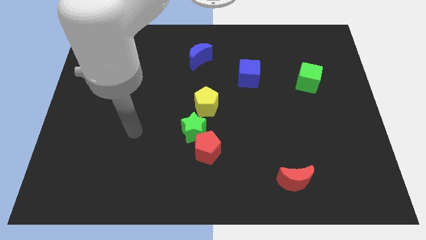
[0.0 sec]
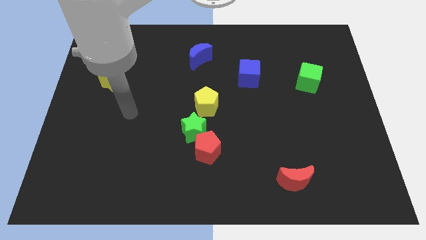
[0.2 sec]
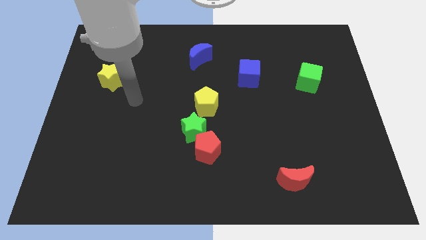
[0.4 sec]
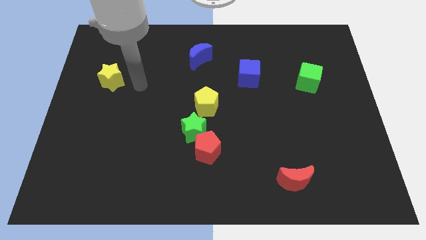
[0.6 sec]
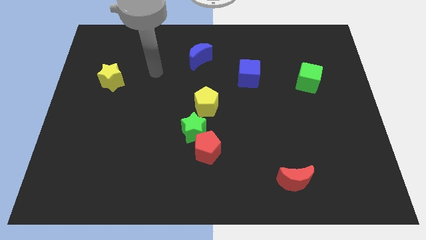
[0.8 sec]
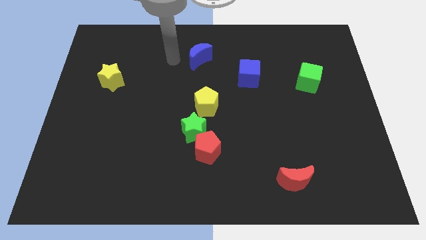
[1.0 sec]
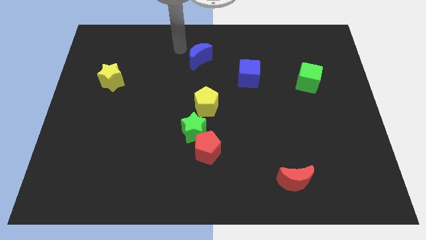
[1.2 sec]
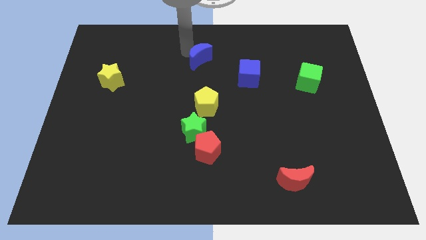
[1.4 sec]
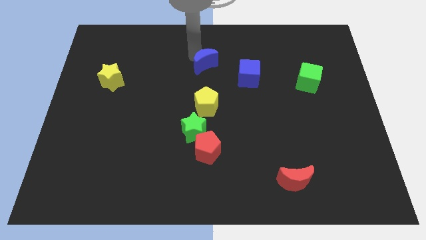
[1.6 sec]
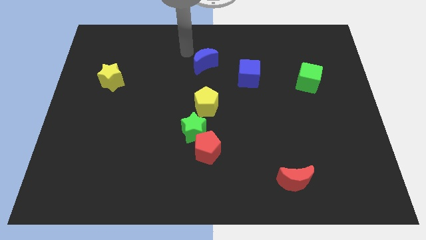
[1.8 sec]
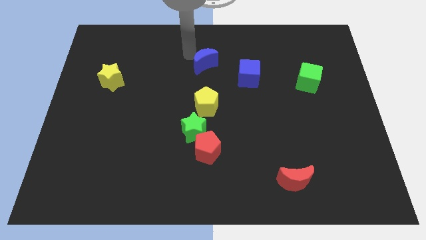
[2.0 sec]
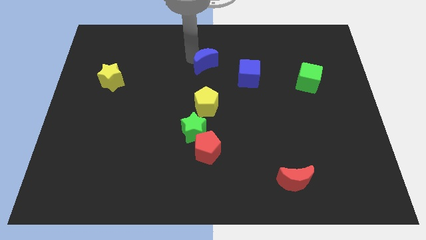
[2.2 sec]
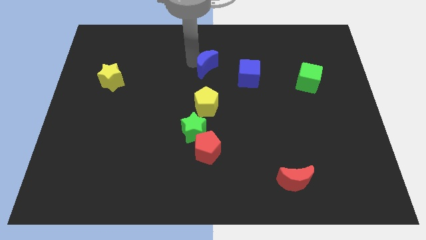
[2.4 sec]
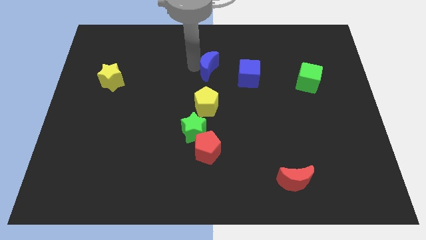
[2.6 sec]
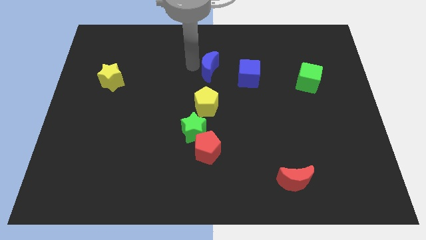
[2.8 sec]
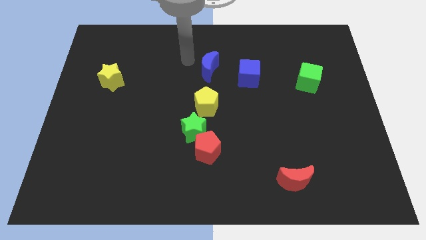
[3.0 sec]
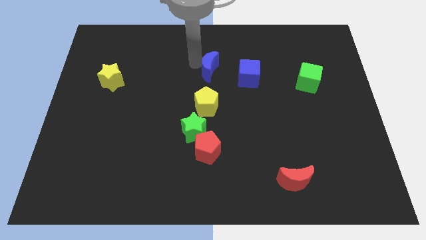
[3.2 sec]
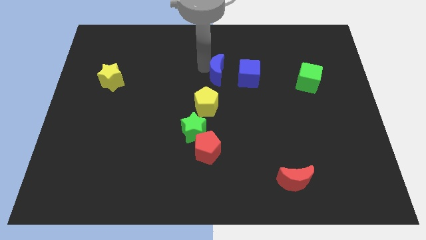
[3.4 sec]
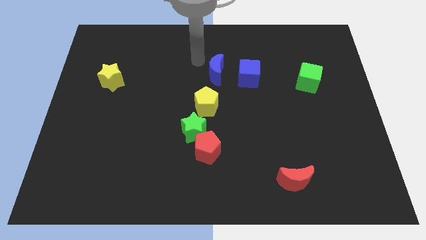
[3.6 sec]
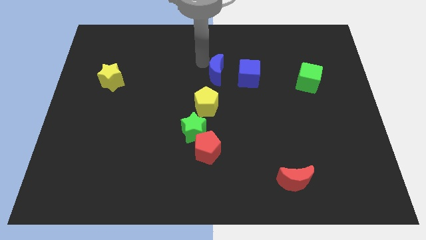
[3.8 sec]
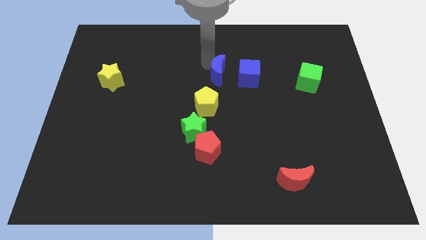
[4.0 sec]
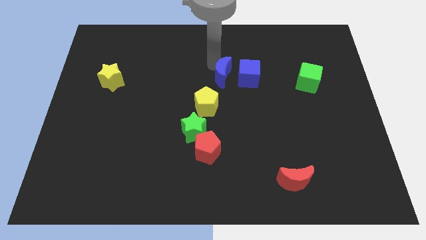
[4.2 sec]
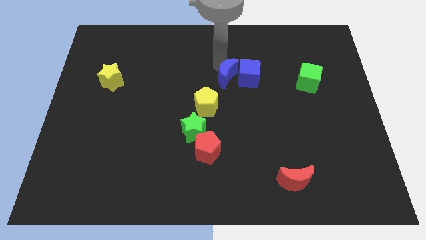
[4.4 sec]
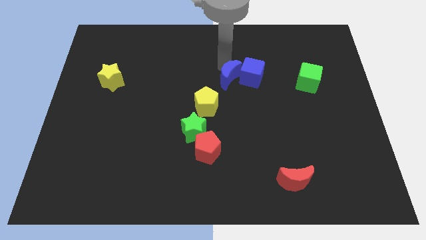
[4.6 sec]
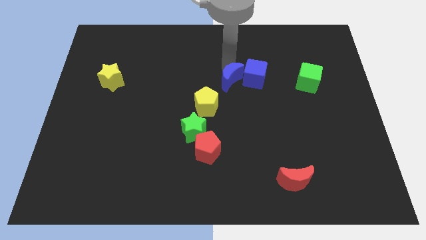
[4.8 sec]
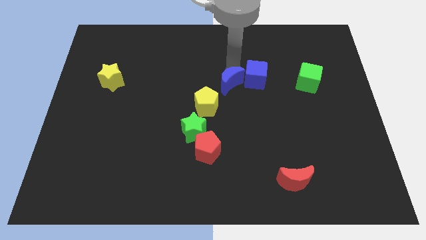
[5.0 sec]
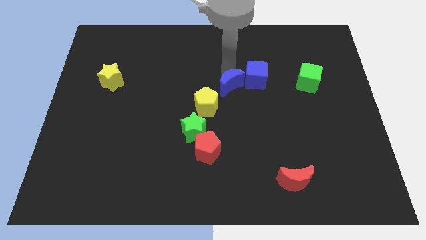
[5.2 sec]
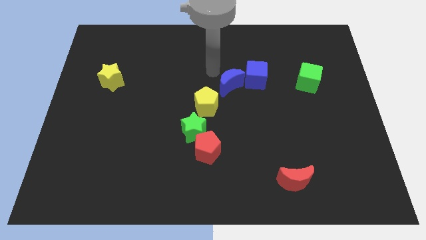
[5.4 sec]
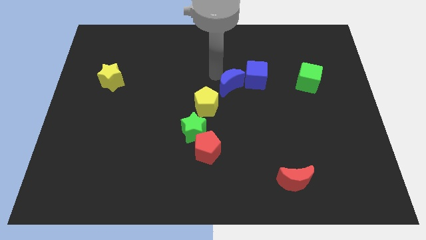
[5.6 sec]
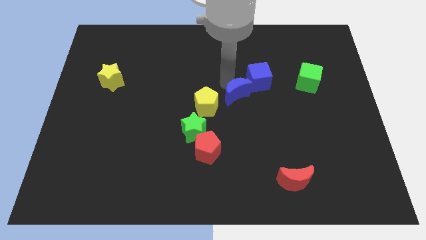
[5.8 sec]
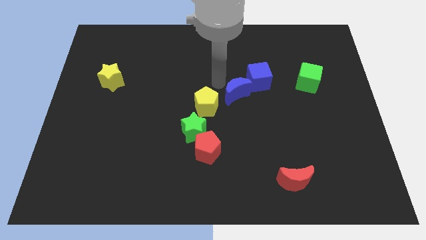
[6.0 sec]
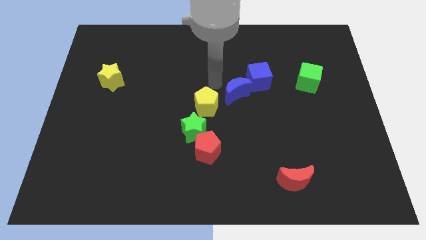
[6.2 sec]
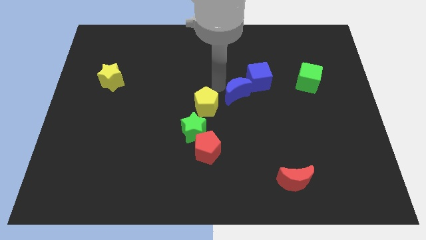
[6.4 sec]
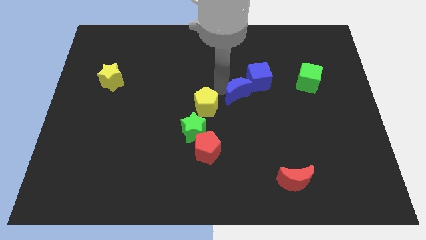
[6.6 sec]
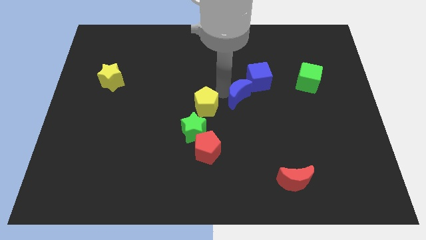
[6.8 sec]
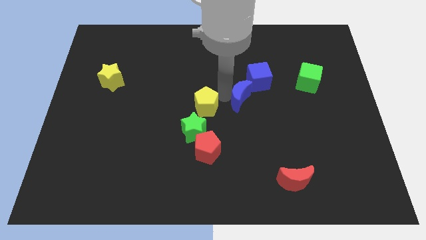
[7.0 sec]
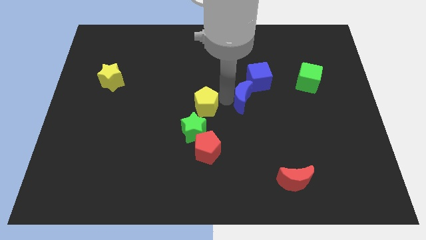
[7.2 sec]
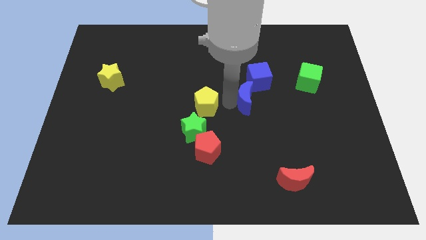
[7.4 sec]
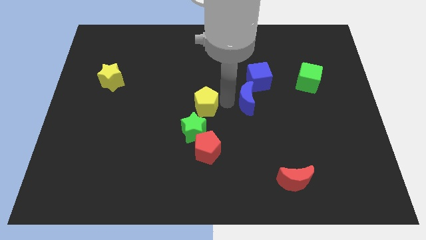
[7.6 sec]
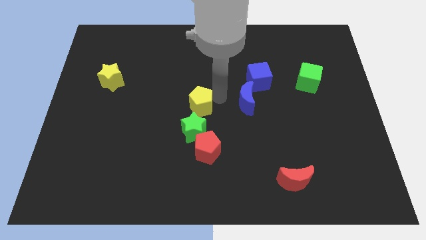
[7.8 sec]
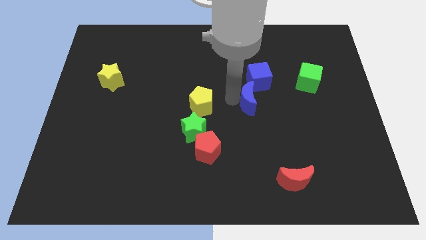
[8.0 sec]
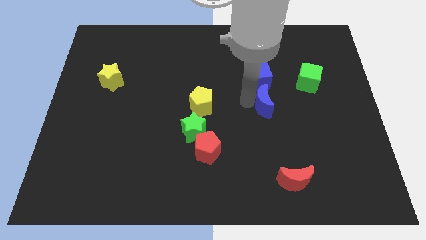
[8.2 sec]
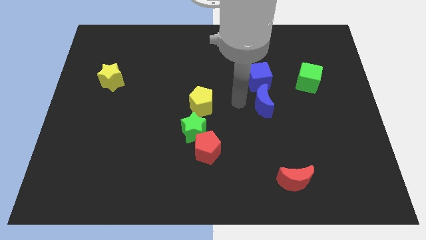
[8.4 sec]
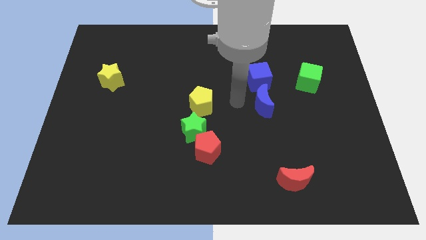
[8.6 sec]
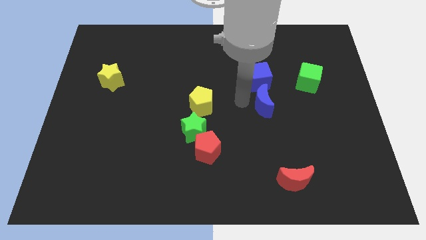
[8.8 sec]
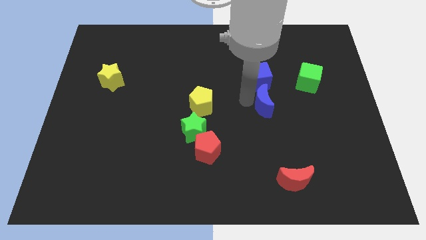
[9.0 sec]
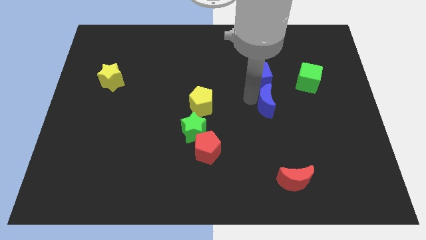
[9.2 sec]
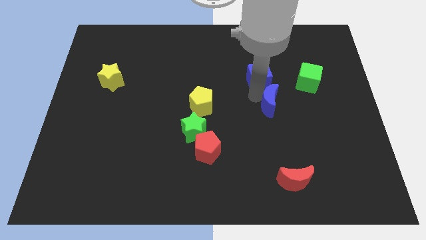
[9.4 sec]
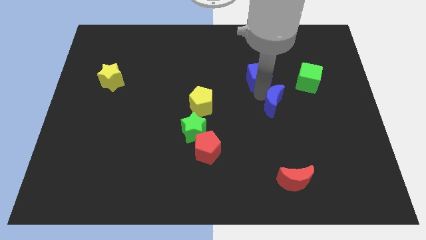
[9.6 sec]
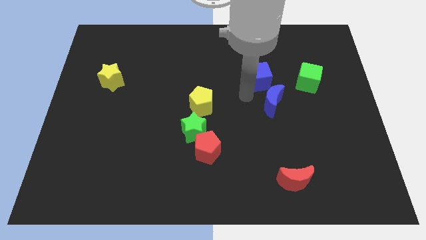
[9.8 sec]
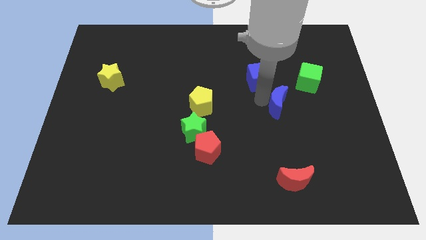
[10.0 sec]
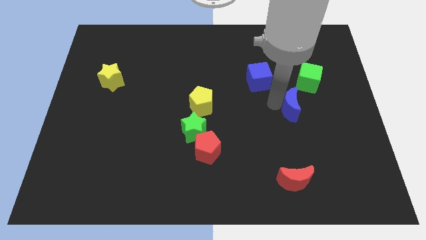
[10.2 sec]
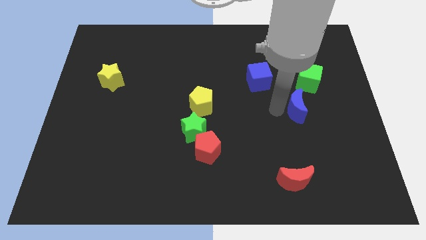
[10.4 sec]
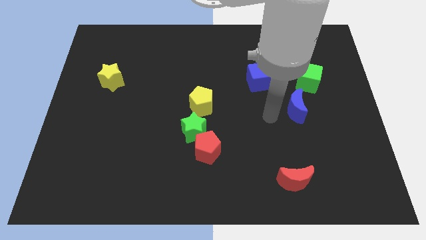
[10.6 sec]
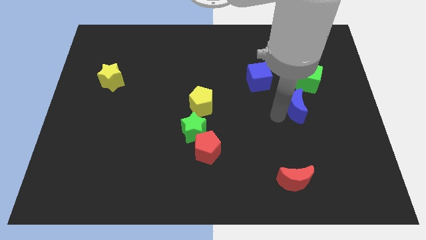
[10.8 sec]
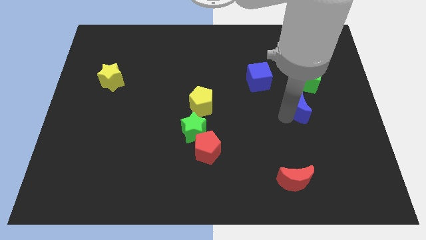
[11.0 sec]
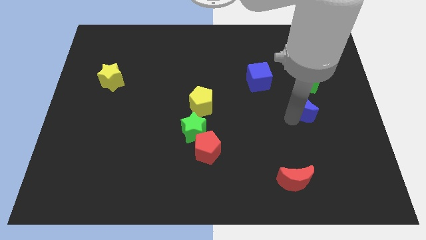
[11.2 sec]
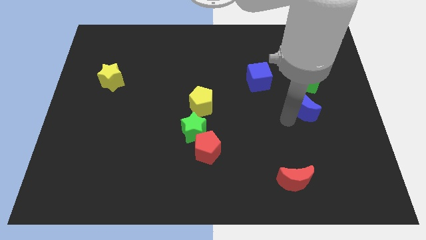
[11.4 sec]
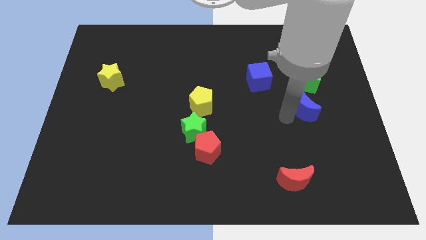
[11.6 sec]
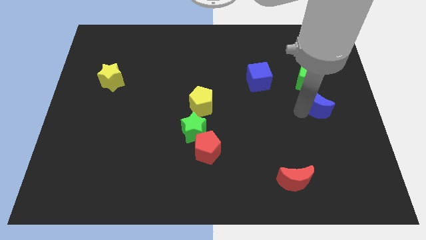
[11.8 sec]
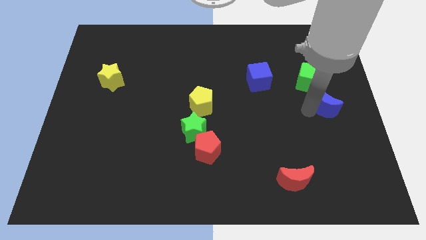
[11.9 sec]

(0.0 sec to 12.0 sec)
slide the blue moon diagonally down and to the right of the green cube
